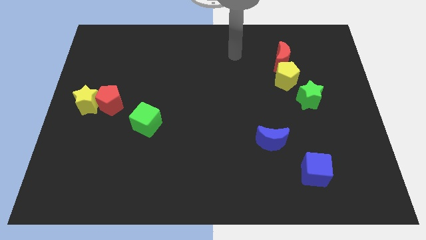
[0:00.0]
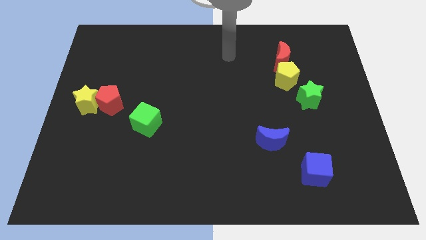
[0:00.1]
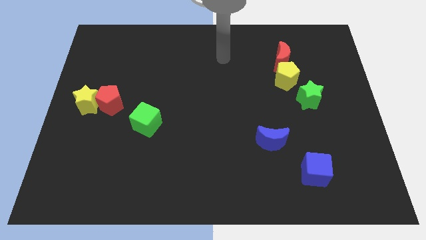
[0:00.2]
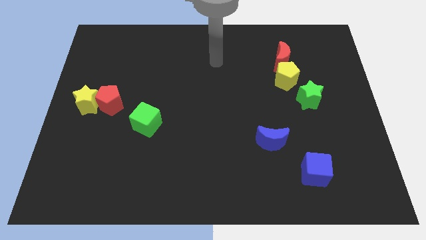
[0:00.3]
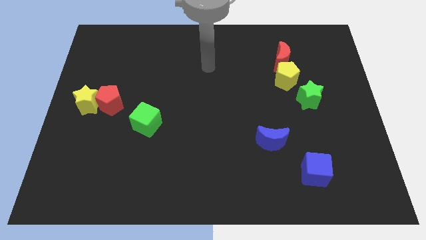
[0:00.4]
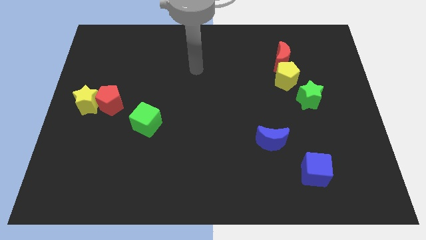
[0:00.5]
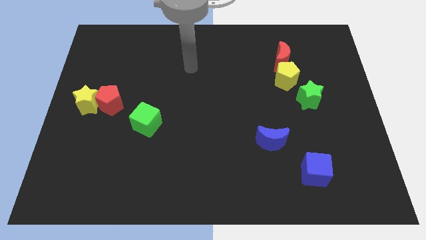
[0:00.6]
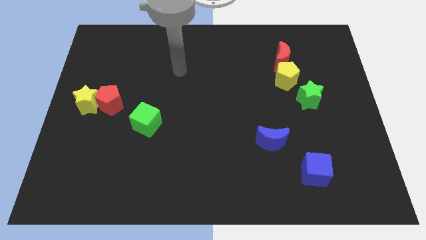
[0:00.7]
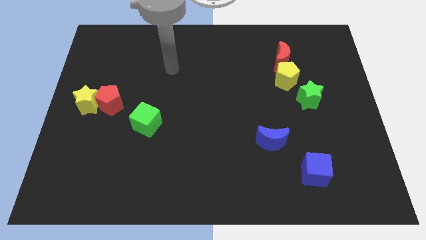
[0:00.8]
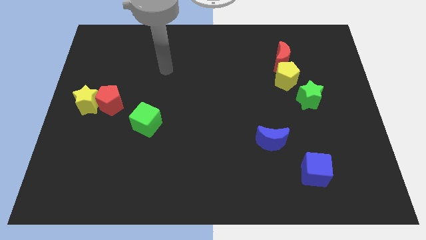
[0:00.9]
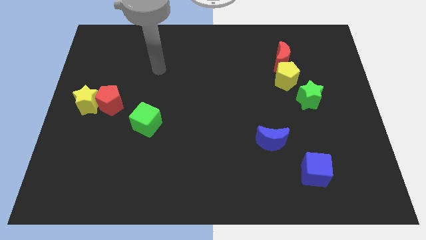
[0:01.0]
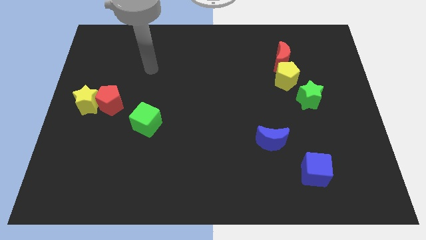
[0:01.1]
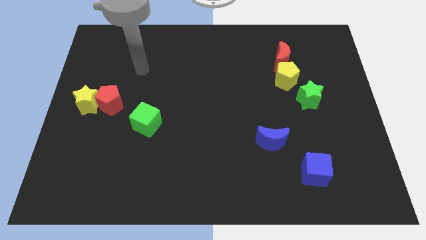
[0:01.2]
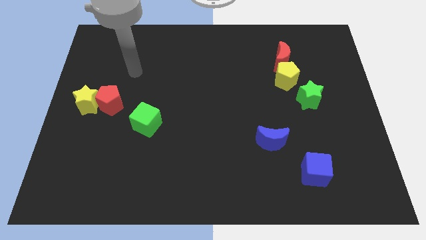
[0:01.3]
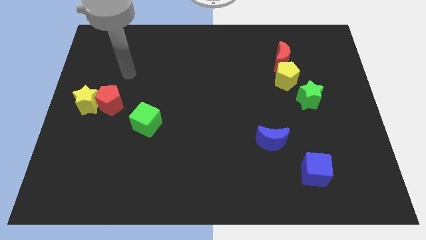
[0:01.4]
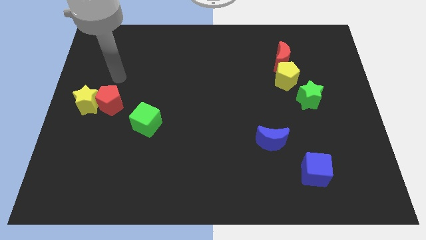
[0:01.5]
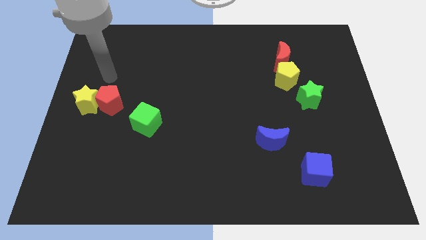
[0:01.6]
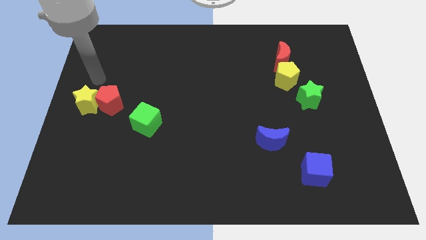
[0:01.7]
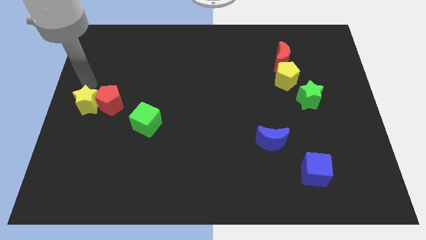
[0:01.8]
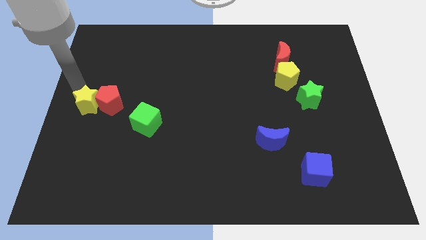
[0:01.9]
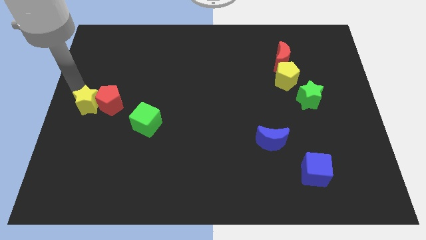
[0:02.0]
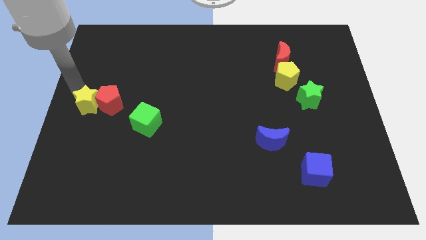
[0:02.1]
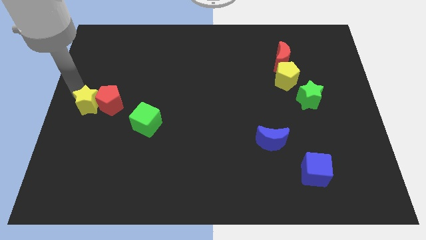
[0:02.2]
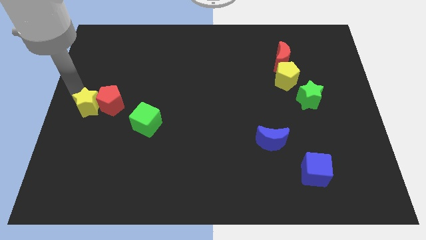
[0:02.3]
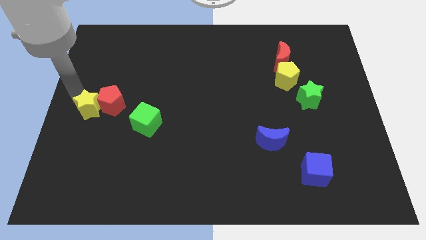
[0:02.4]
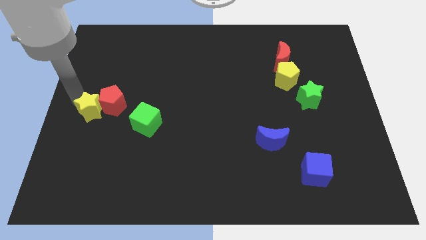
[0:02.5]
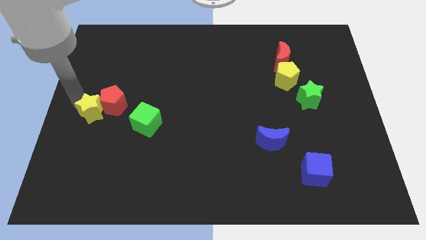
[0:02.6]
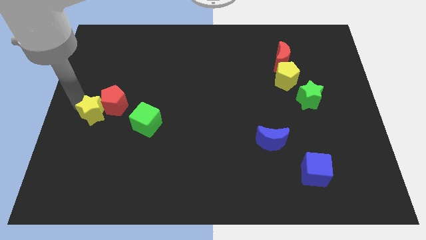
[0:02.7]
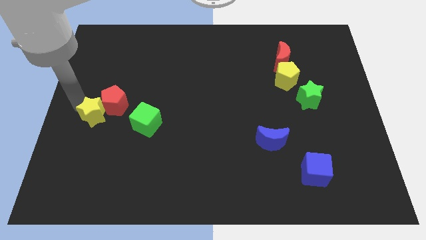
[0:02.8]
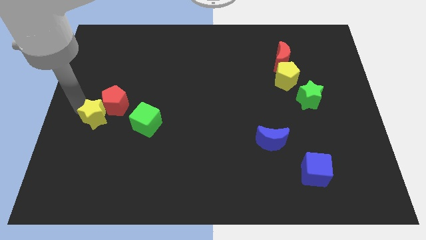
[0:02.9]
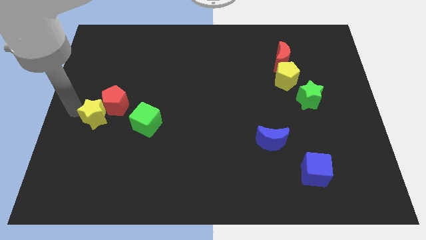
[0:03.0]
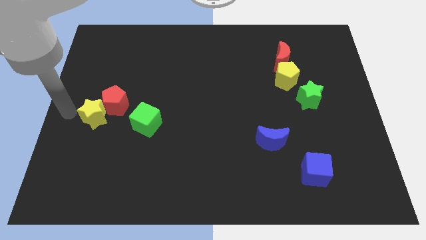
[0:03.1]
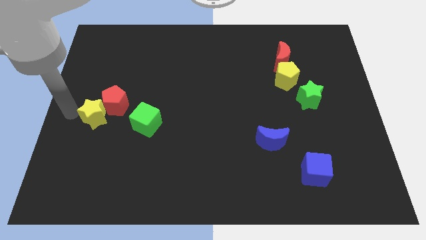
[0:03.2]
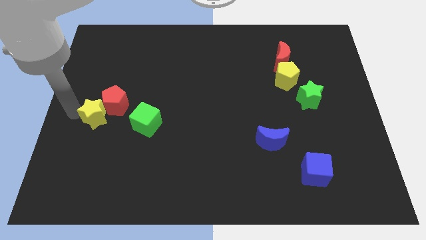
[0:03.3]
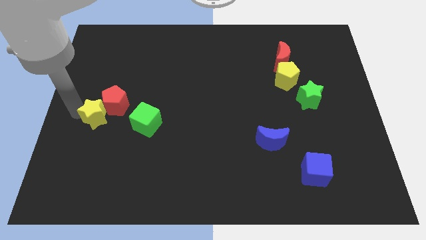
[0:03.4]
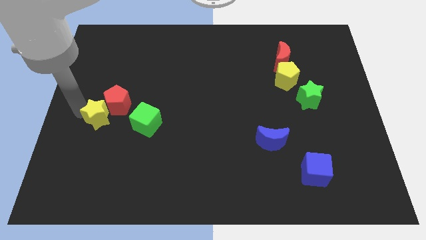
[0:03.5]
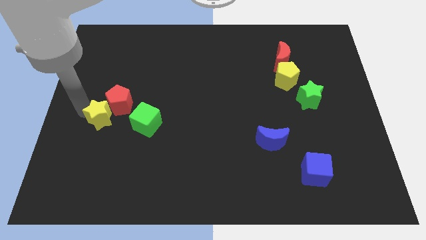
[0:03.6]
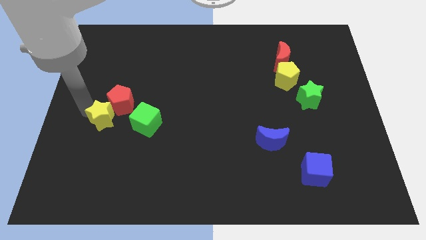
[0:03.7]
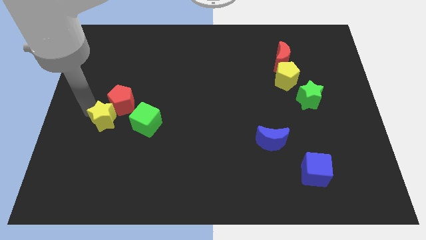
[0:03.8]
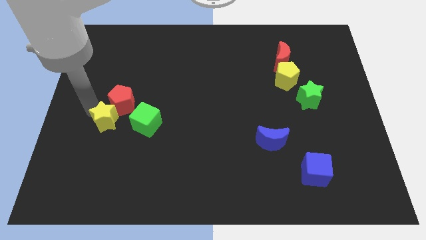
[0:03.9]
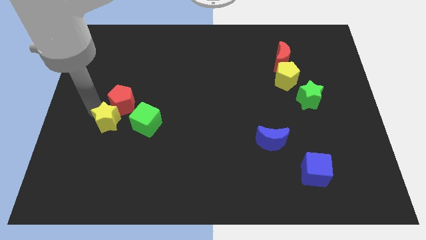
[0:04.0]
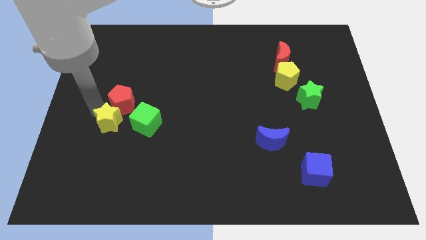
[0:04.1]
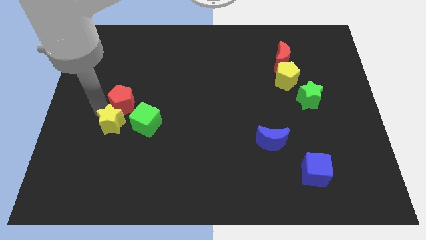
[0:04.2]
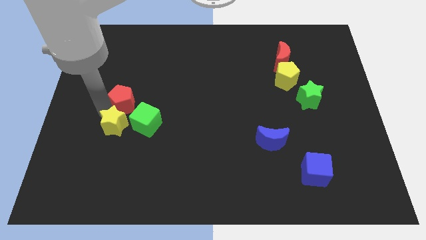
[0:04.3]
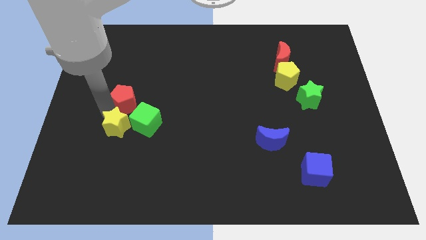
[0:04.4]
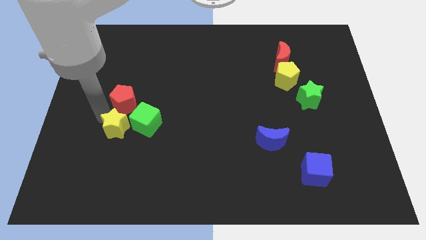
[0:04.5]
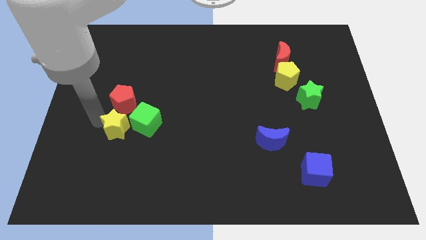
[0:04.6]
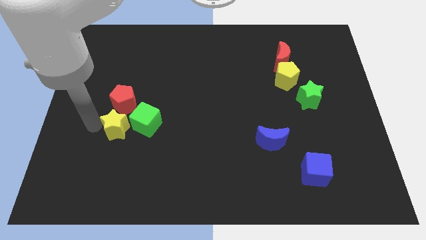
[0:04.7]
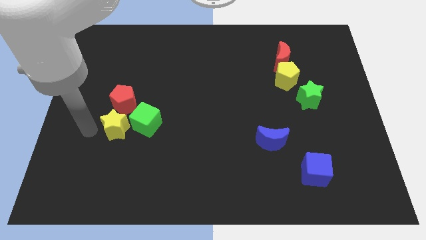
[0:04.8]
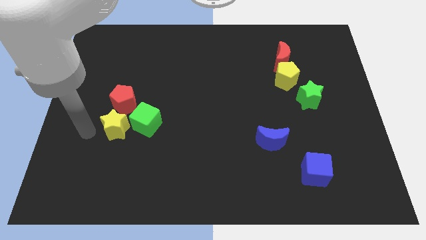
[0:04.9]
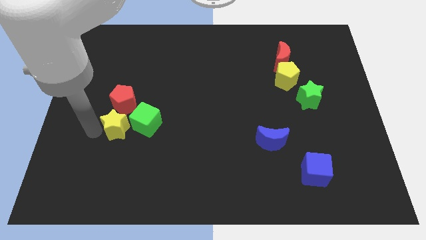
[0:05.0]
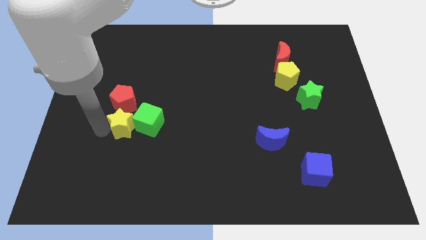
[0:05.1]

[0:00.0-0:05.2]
move the yellow star to the green cube

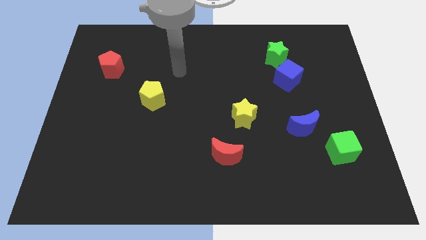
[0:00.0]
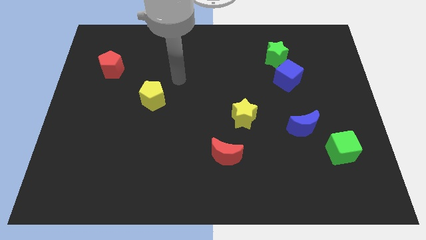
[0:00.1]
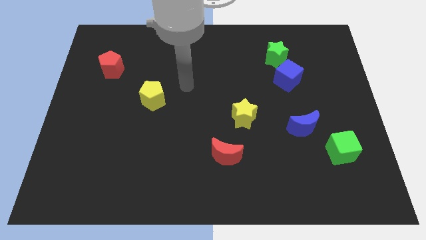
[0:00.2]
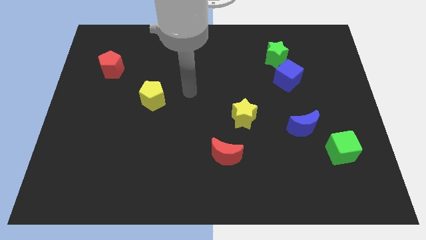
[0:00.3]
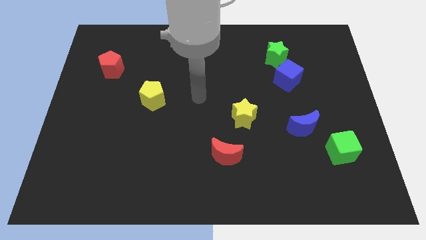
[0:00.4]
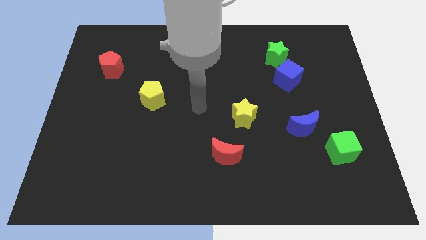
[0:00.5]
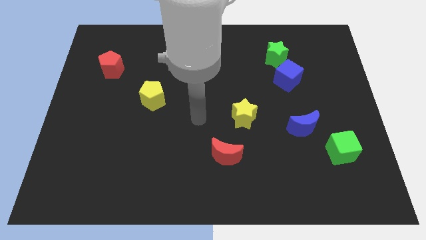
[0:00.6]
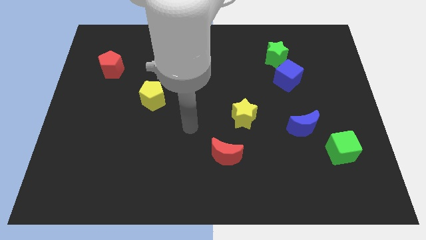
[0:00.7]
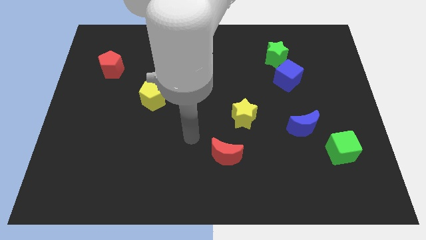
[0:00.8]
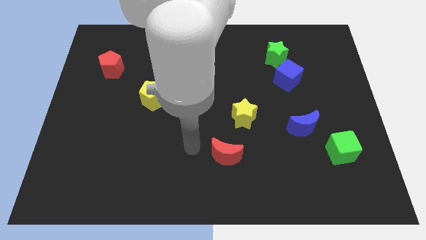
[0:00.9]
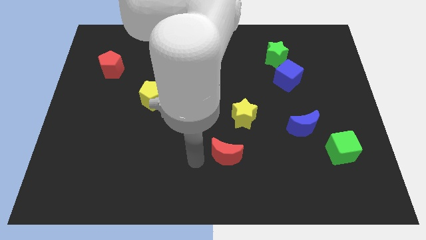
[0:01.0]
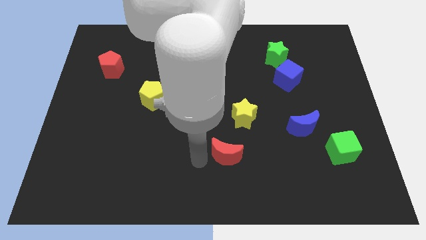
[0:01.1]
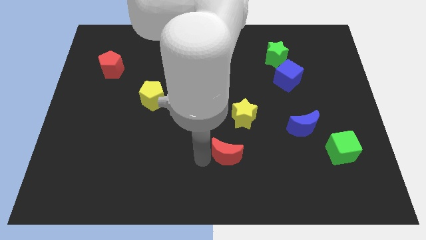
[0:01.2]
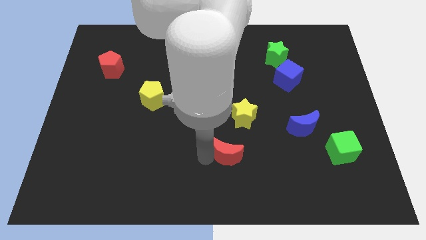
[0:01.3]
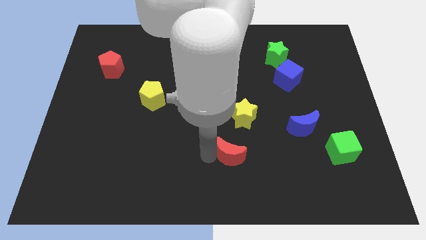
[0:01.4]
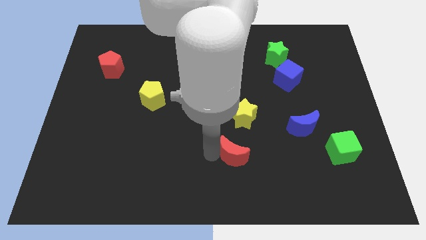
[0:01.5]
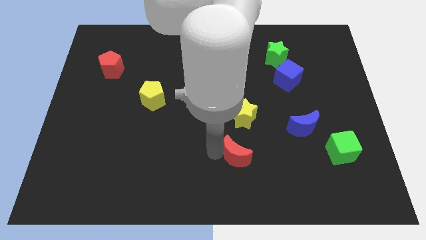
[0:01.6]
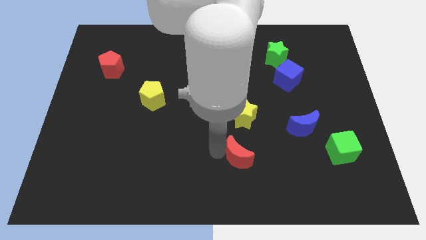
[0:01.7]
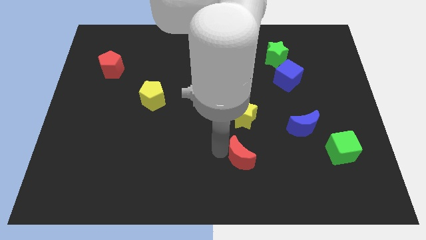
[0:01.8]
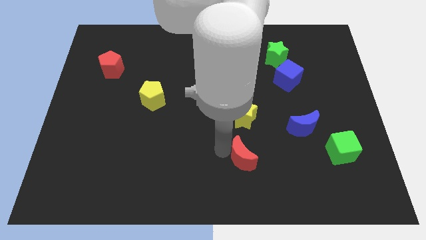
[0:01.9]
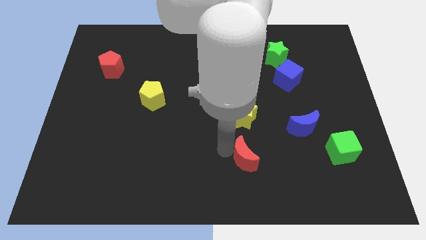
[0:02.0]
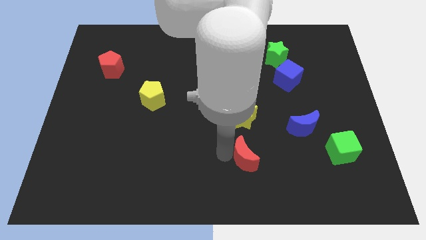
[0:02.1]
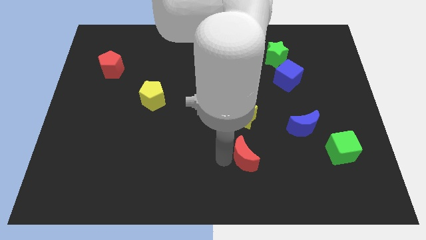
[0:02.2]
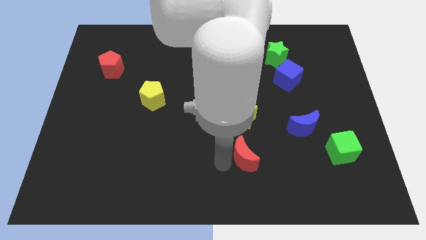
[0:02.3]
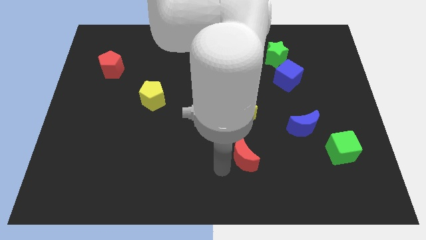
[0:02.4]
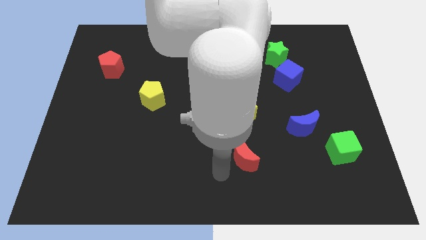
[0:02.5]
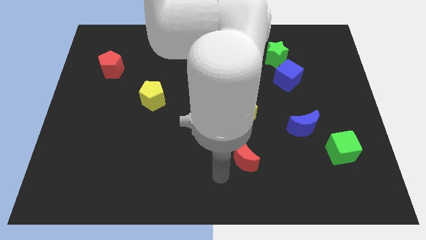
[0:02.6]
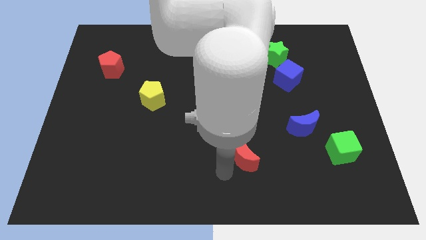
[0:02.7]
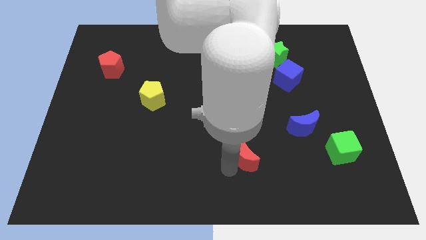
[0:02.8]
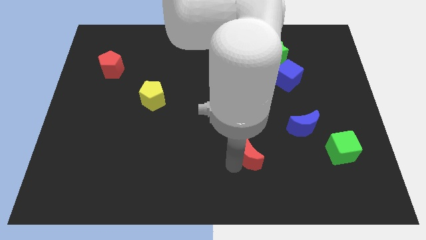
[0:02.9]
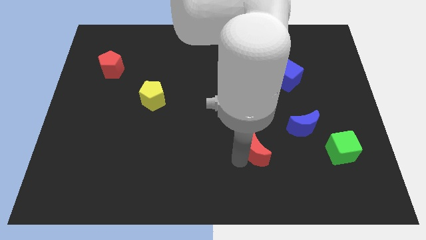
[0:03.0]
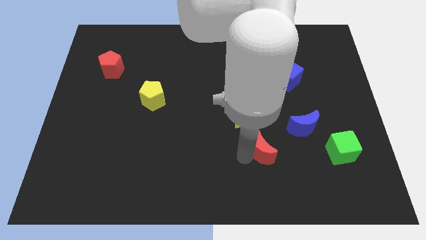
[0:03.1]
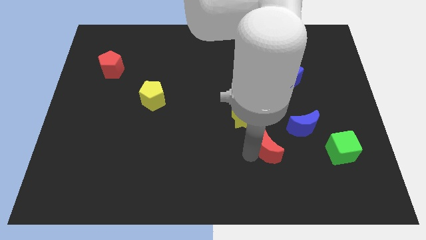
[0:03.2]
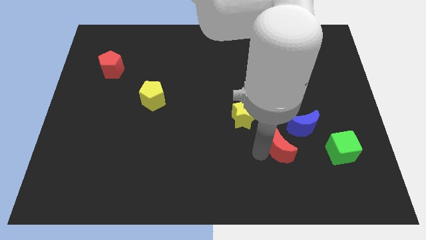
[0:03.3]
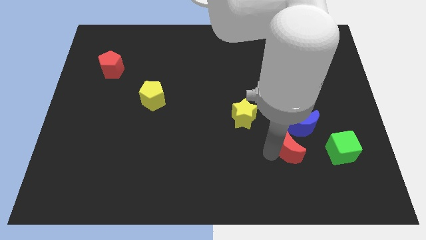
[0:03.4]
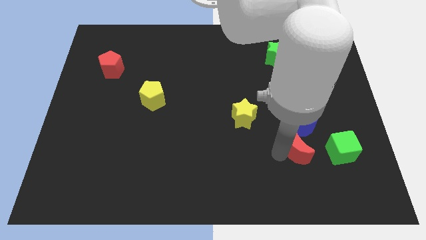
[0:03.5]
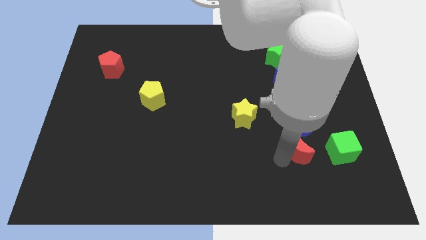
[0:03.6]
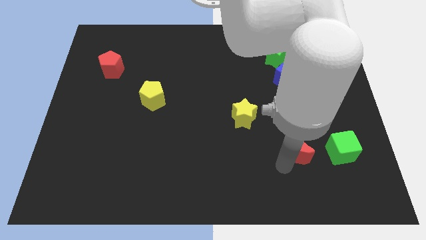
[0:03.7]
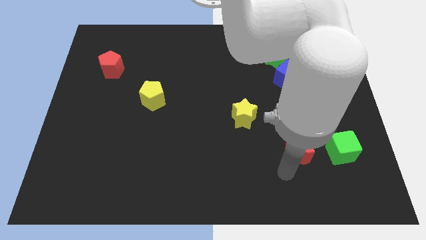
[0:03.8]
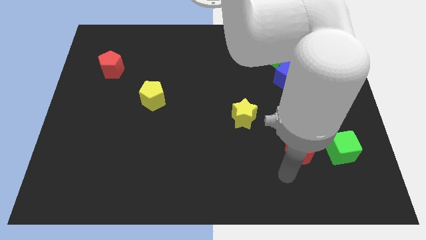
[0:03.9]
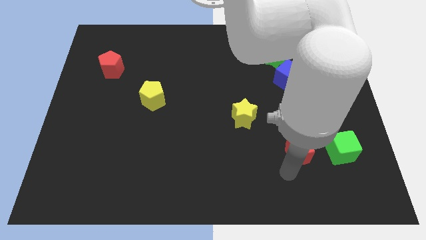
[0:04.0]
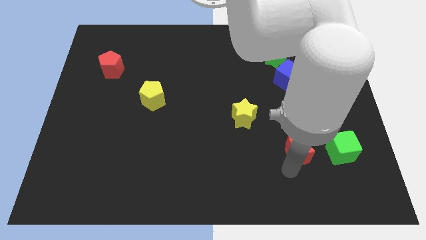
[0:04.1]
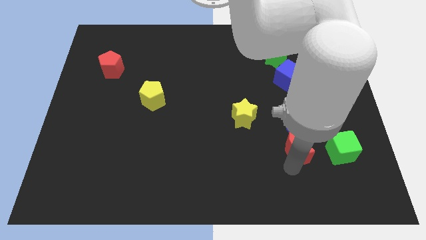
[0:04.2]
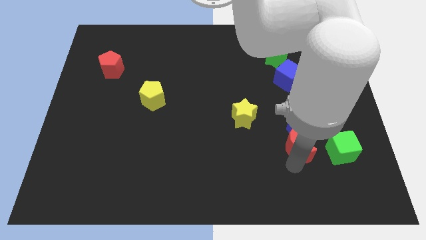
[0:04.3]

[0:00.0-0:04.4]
put the red moon close to the blue moon
